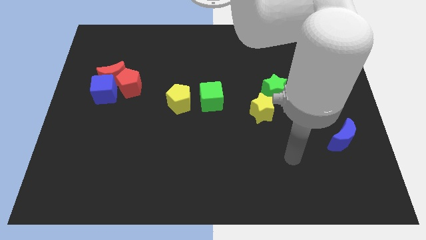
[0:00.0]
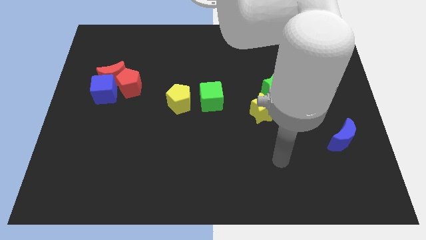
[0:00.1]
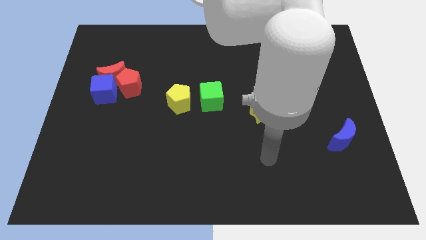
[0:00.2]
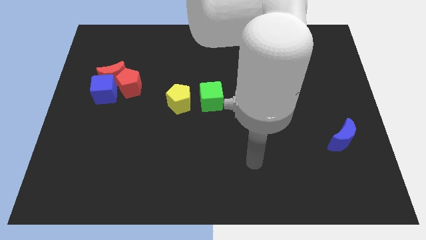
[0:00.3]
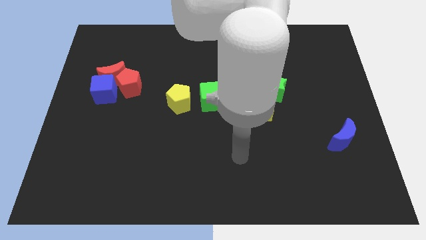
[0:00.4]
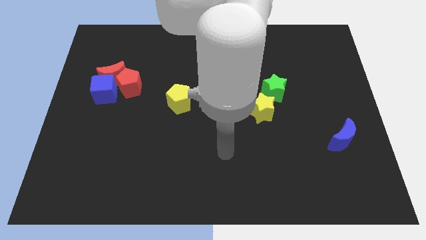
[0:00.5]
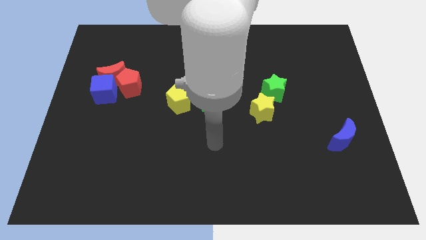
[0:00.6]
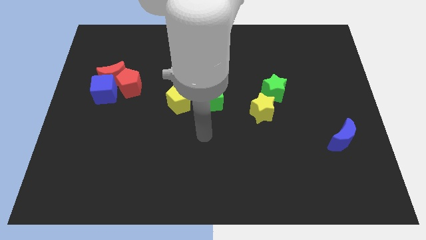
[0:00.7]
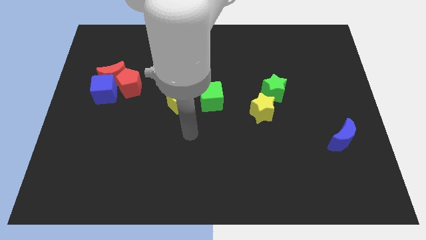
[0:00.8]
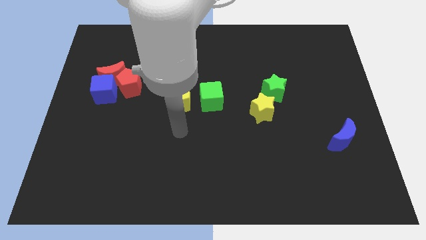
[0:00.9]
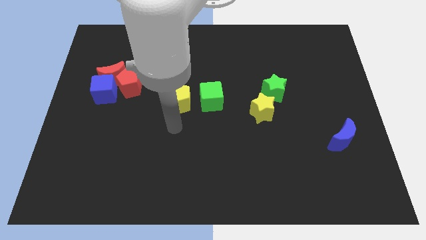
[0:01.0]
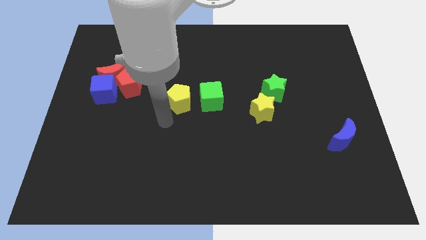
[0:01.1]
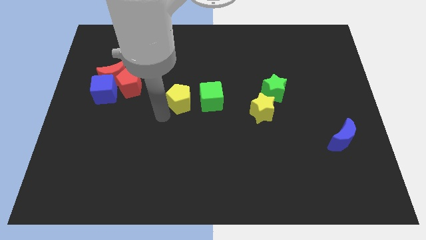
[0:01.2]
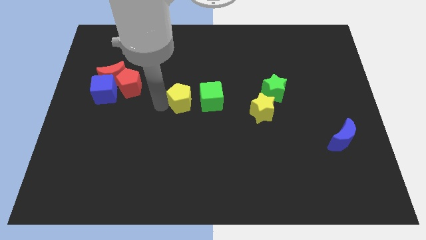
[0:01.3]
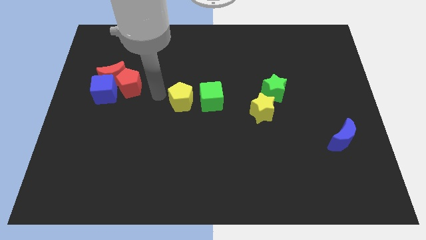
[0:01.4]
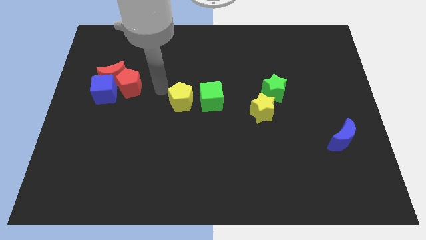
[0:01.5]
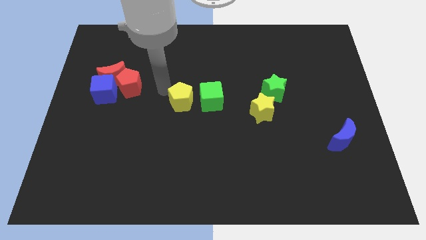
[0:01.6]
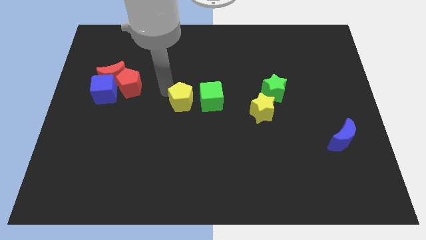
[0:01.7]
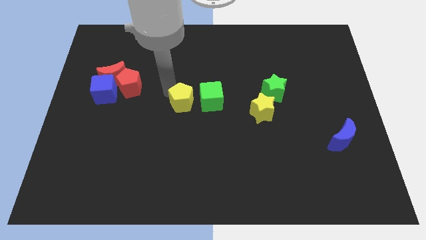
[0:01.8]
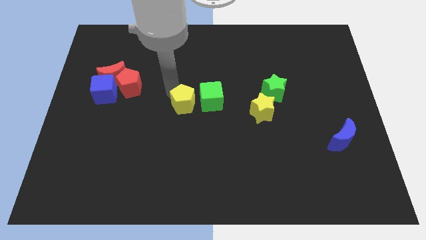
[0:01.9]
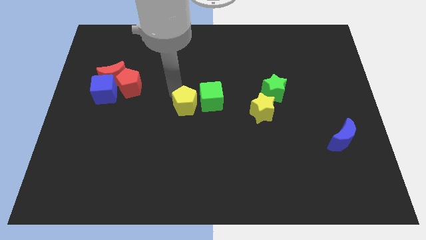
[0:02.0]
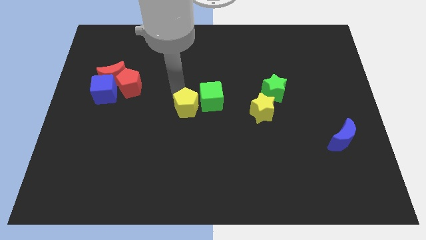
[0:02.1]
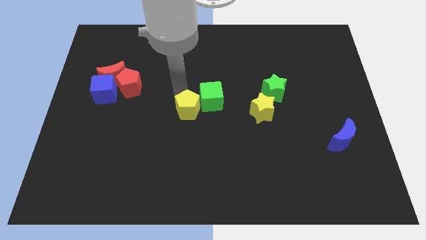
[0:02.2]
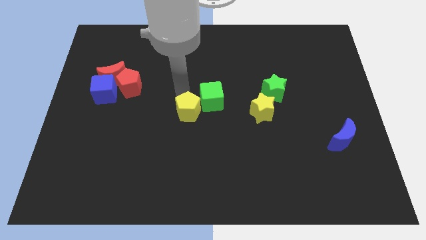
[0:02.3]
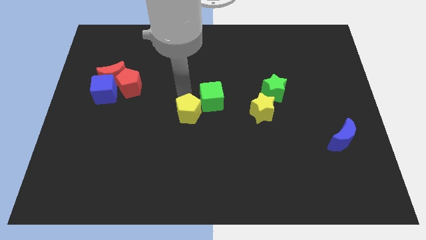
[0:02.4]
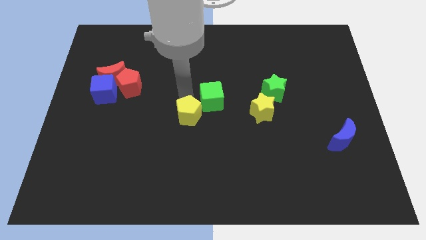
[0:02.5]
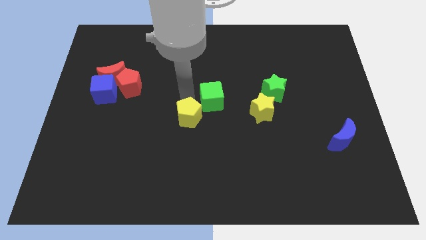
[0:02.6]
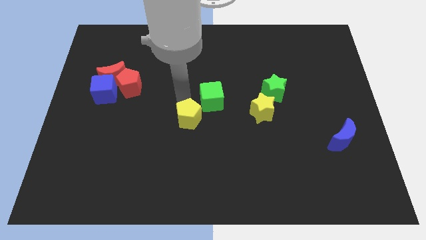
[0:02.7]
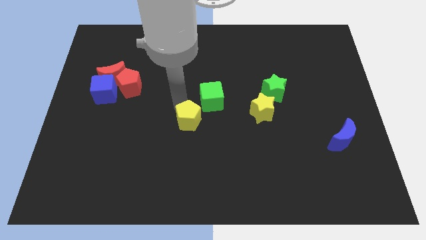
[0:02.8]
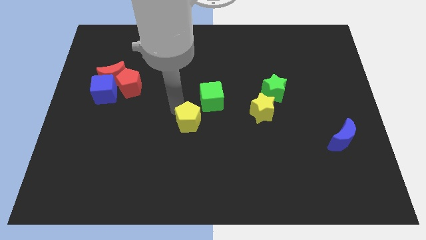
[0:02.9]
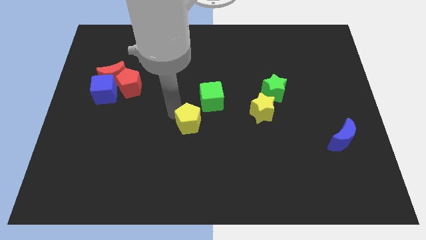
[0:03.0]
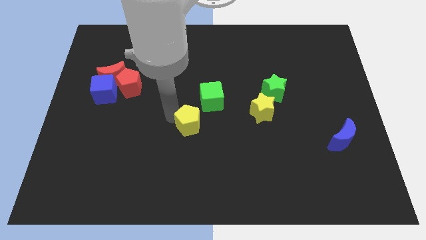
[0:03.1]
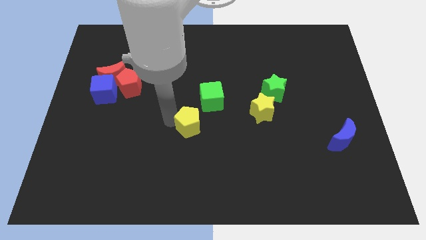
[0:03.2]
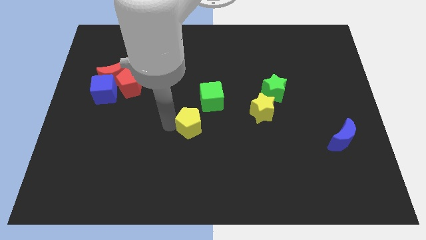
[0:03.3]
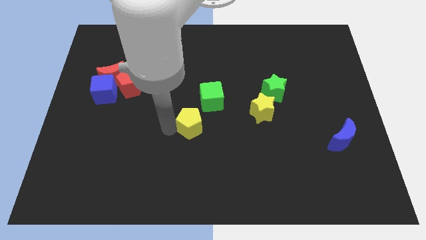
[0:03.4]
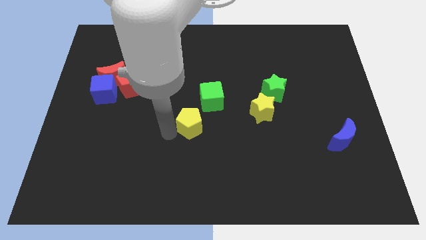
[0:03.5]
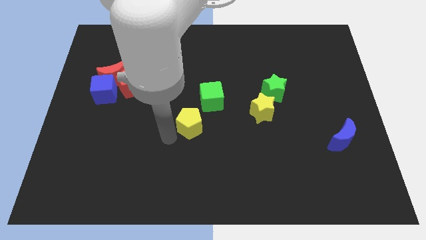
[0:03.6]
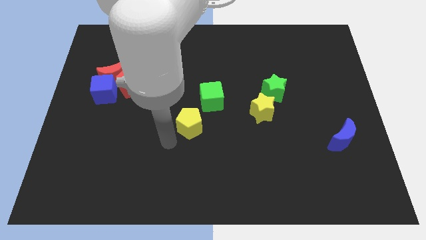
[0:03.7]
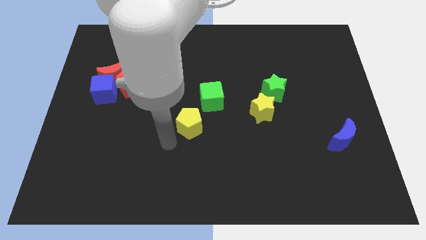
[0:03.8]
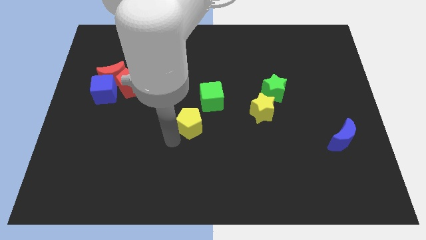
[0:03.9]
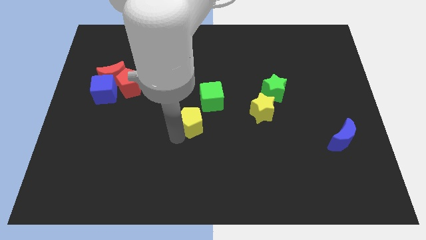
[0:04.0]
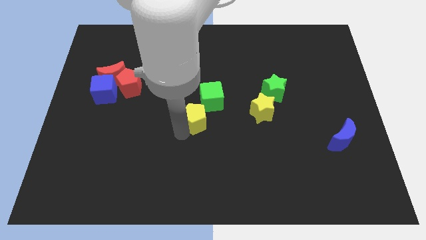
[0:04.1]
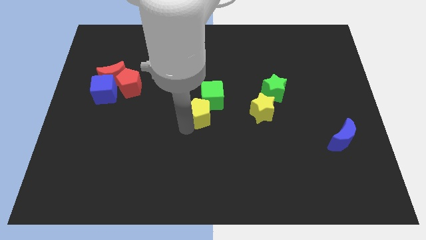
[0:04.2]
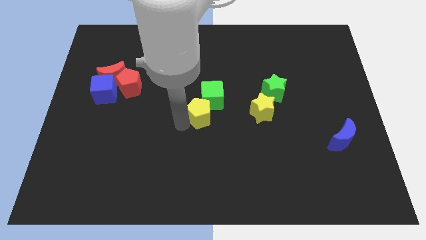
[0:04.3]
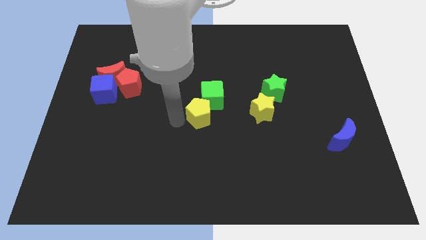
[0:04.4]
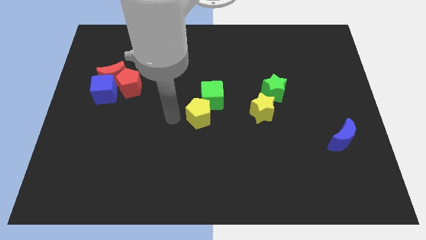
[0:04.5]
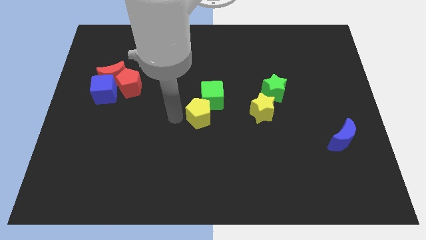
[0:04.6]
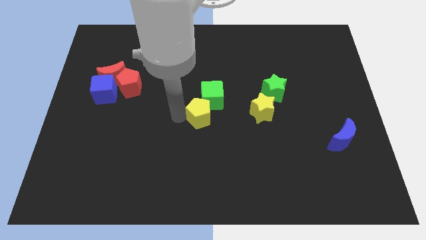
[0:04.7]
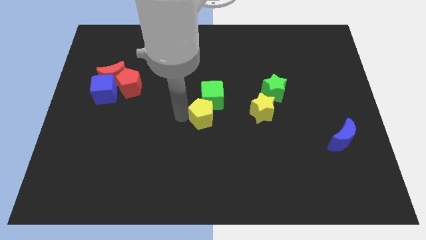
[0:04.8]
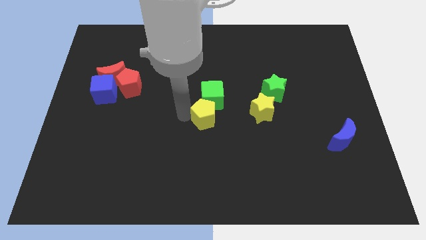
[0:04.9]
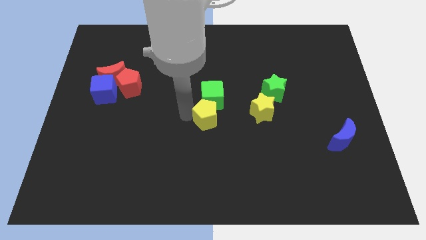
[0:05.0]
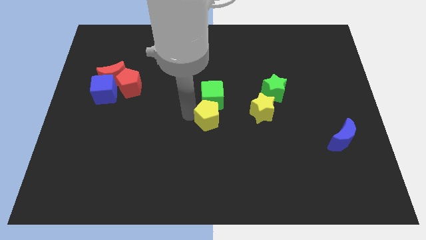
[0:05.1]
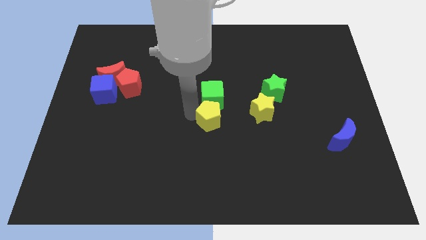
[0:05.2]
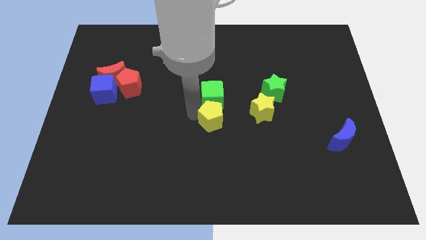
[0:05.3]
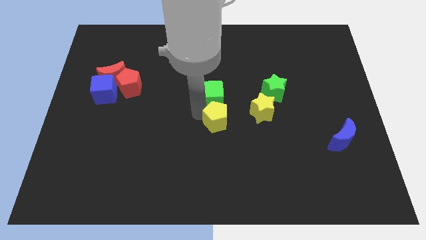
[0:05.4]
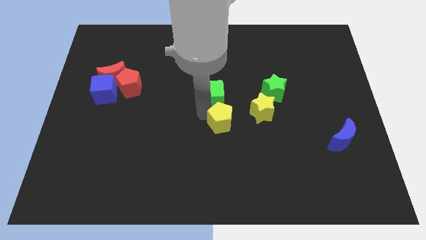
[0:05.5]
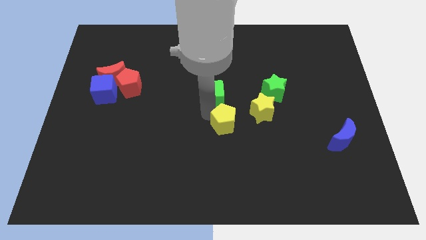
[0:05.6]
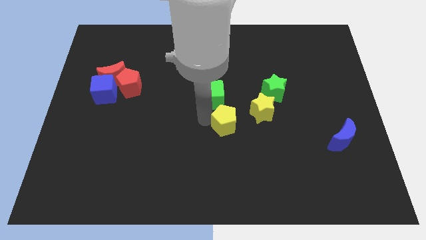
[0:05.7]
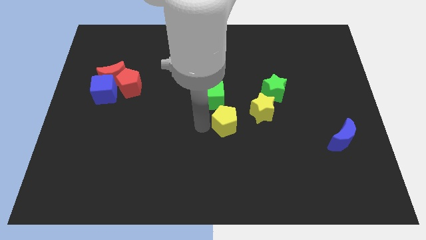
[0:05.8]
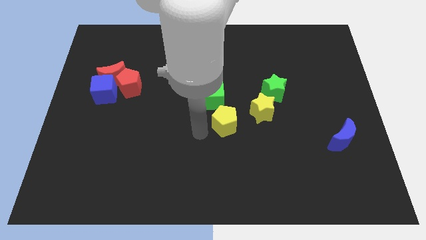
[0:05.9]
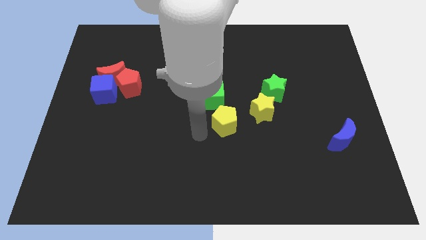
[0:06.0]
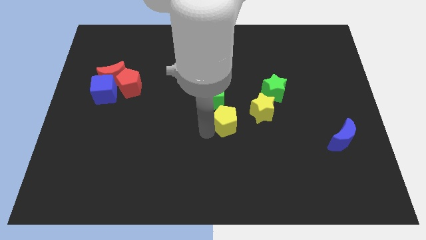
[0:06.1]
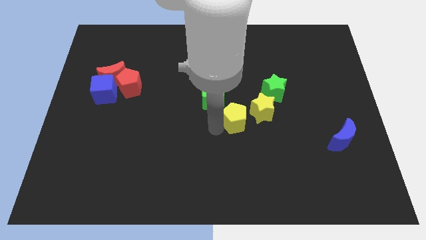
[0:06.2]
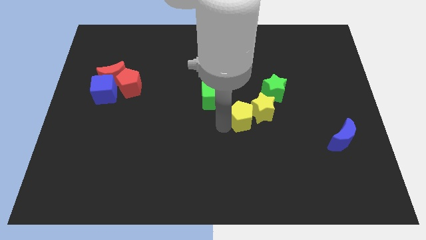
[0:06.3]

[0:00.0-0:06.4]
slide the yellow pentagon close to the yellow star

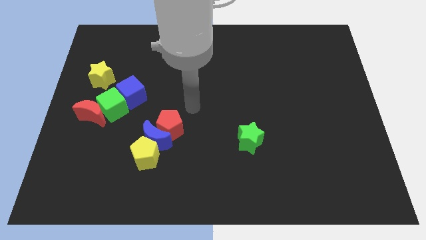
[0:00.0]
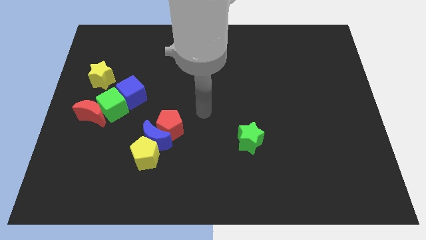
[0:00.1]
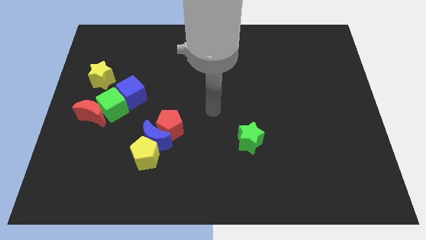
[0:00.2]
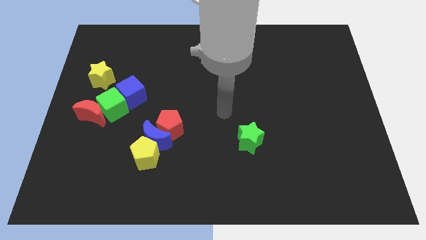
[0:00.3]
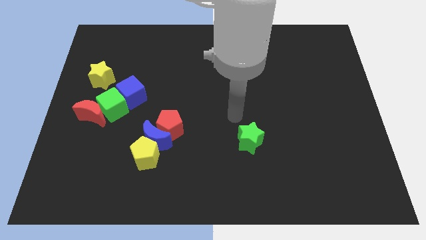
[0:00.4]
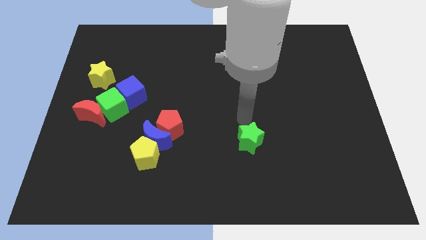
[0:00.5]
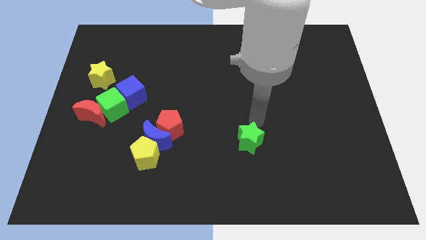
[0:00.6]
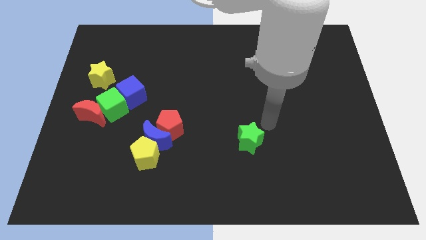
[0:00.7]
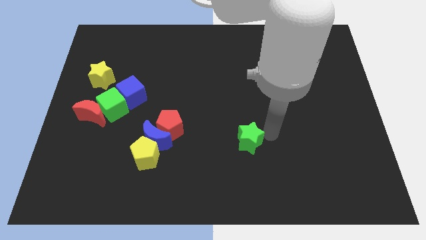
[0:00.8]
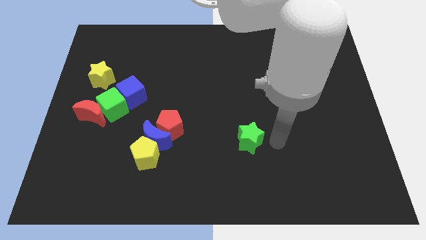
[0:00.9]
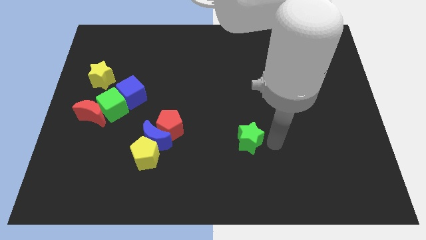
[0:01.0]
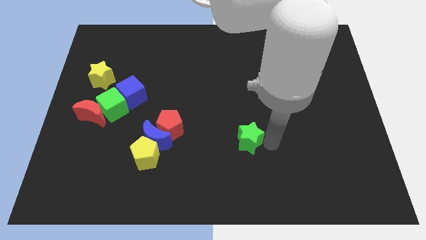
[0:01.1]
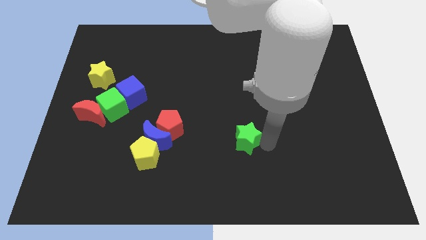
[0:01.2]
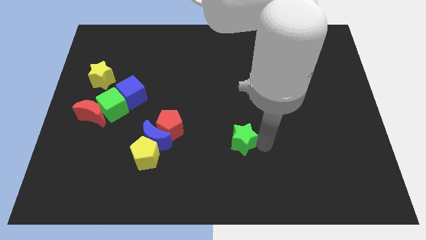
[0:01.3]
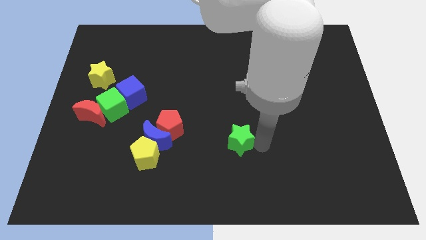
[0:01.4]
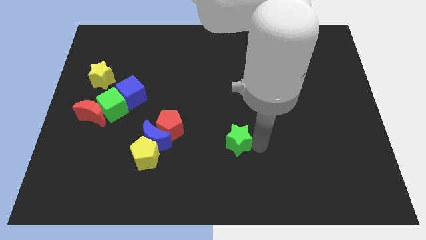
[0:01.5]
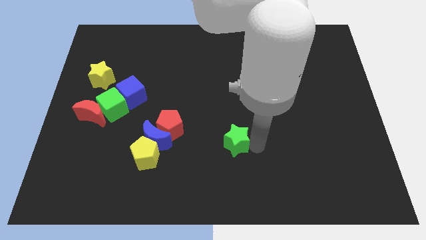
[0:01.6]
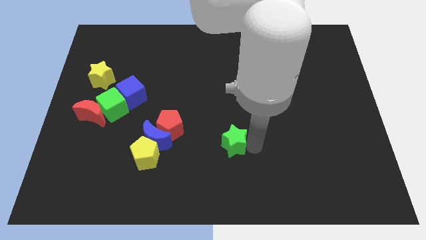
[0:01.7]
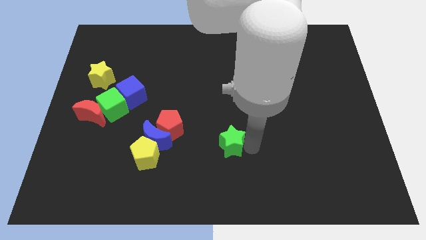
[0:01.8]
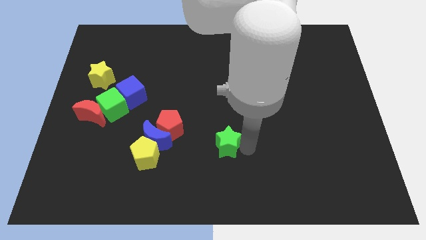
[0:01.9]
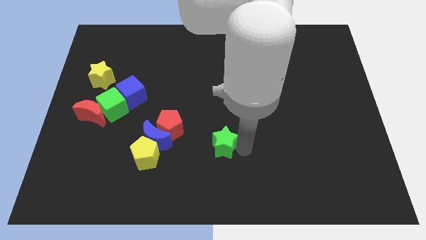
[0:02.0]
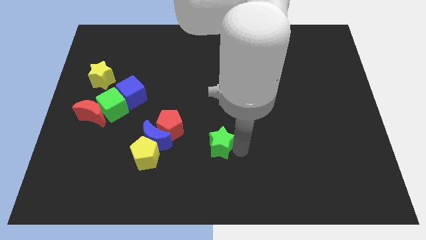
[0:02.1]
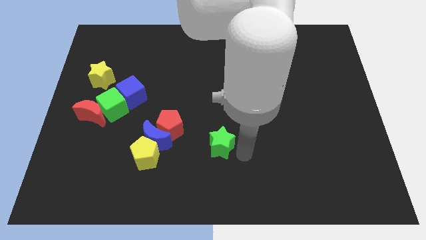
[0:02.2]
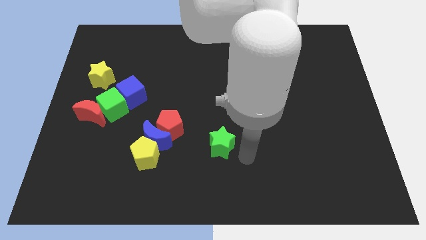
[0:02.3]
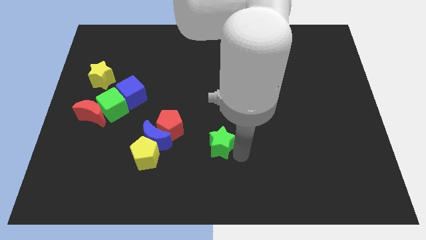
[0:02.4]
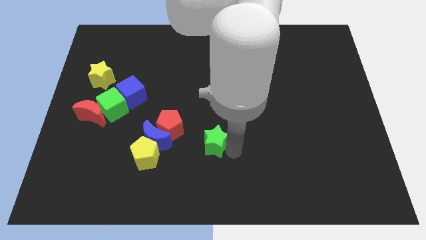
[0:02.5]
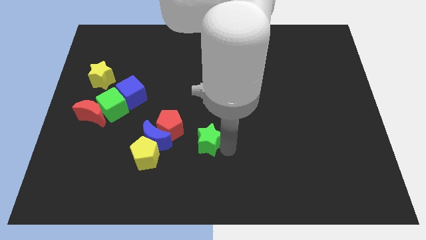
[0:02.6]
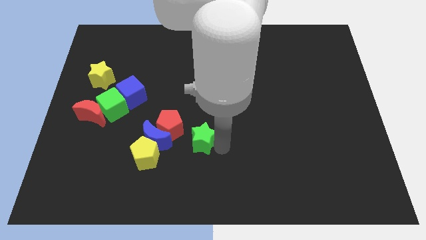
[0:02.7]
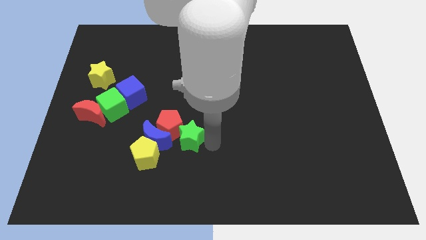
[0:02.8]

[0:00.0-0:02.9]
push the green star to the red pentagon
